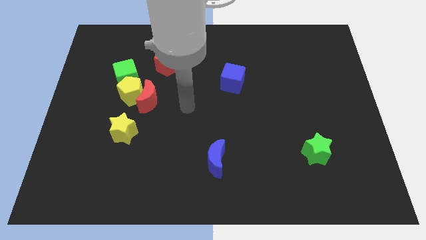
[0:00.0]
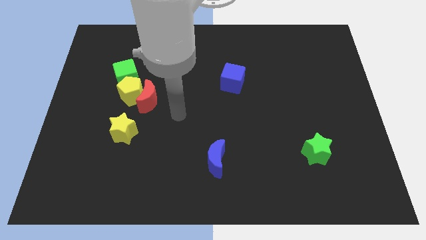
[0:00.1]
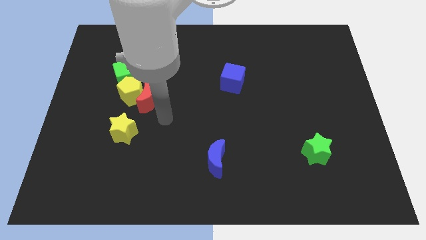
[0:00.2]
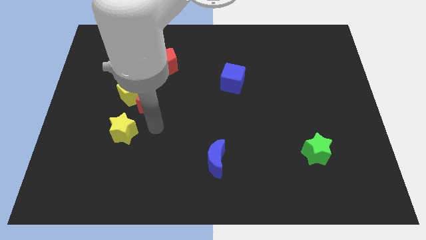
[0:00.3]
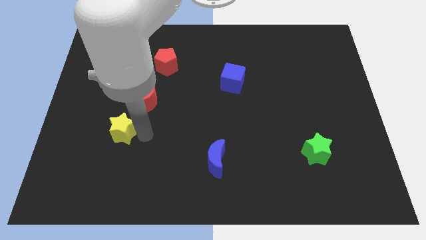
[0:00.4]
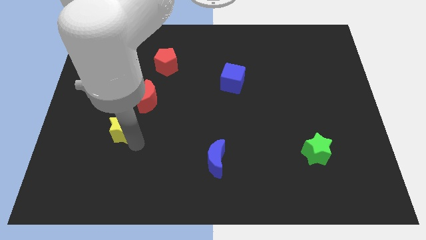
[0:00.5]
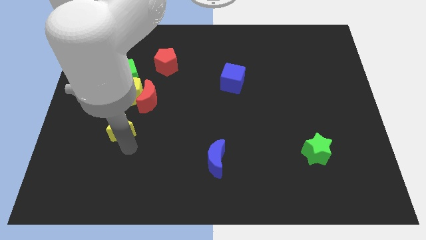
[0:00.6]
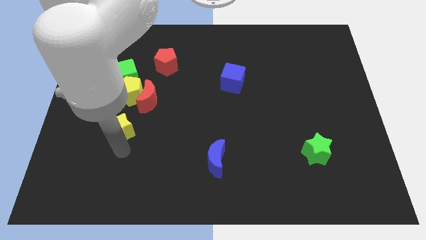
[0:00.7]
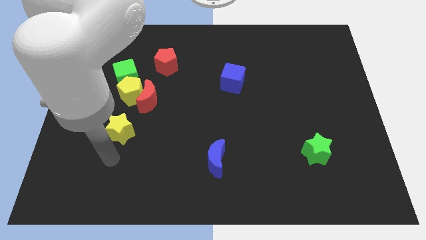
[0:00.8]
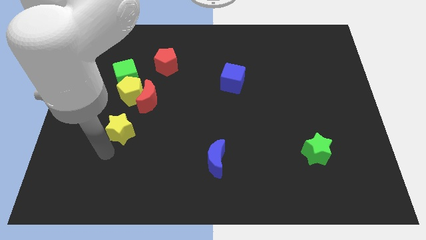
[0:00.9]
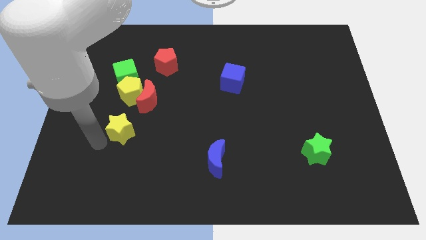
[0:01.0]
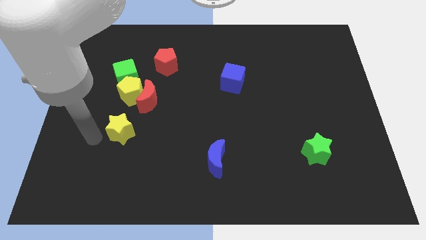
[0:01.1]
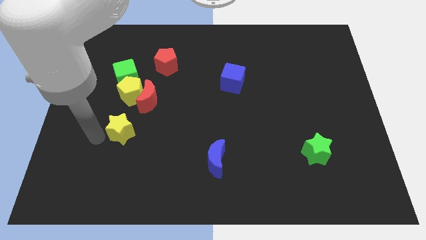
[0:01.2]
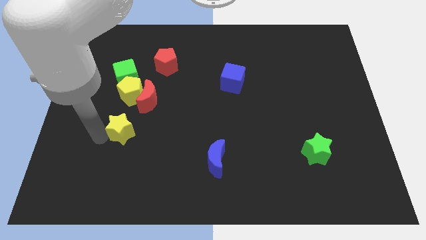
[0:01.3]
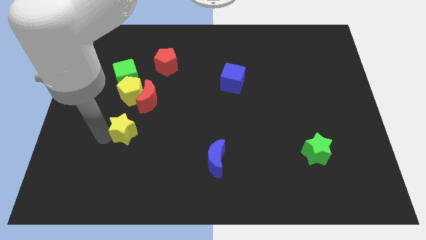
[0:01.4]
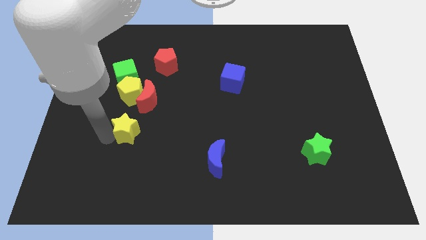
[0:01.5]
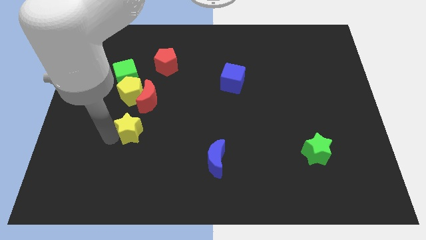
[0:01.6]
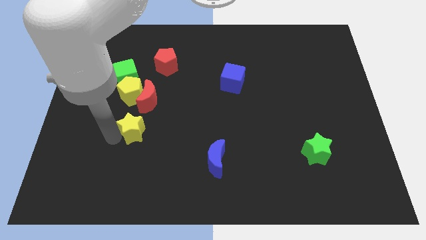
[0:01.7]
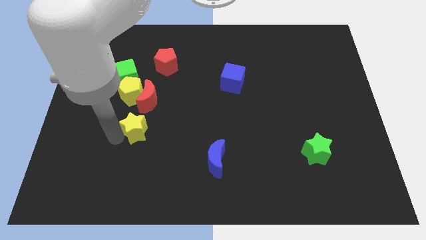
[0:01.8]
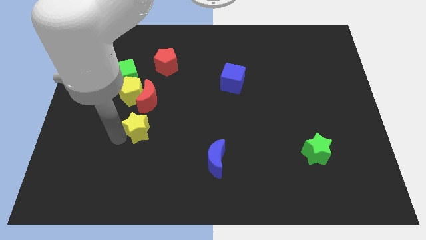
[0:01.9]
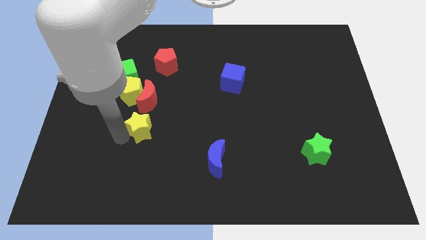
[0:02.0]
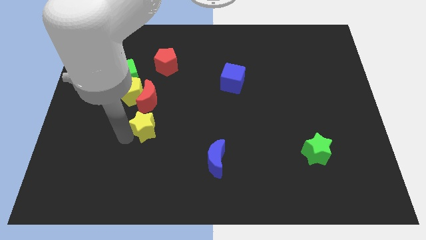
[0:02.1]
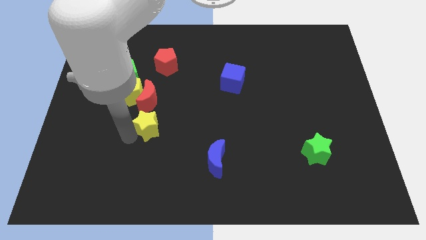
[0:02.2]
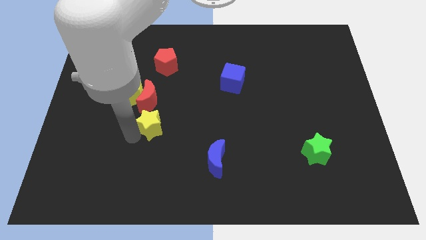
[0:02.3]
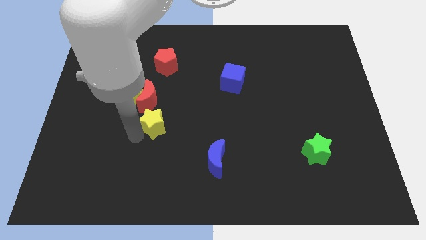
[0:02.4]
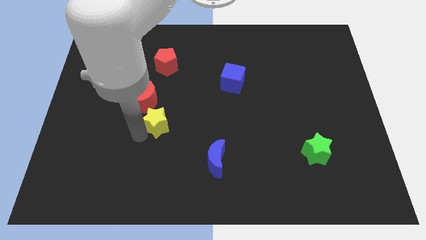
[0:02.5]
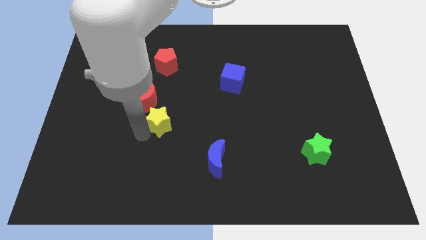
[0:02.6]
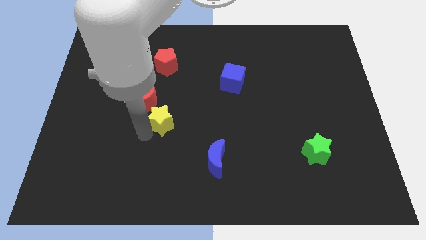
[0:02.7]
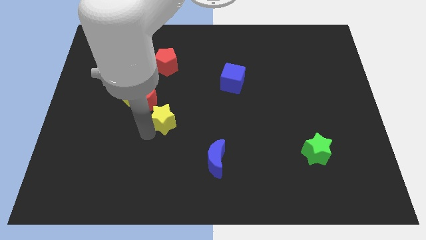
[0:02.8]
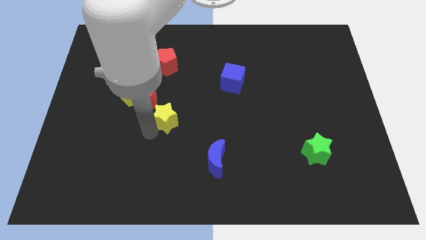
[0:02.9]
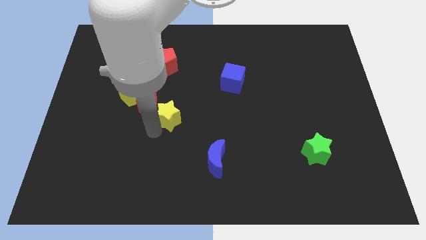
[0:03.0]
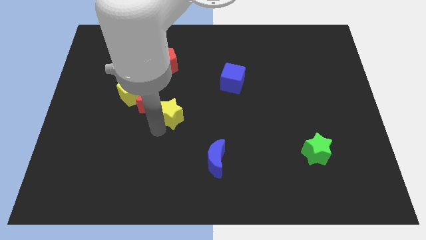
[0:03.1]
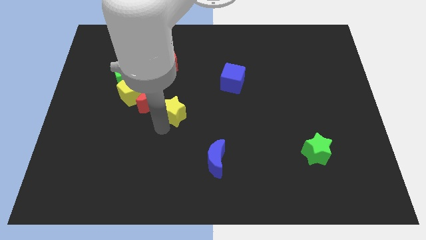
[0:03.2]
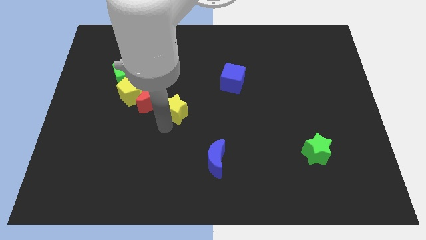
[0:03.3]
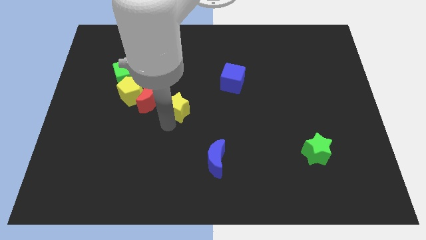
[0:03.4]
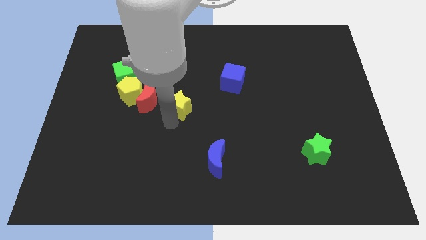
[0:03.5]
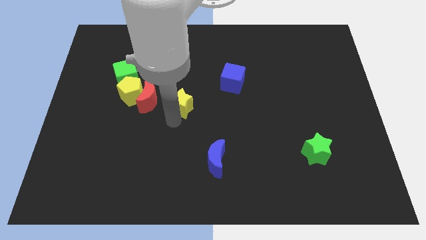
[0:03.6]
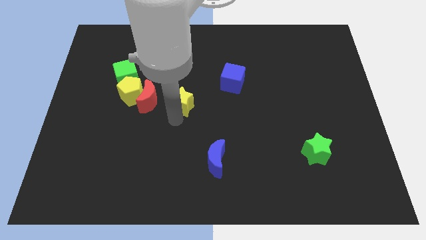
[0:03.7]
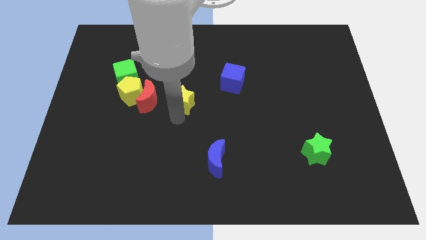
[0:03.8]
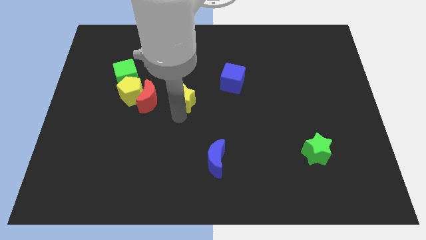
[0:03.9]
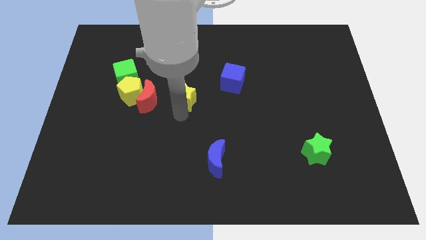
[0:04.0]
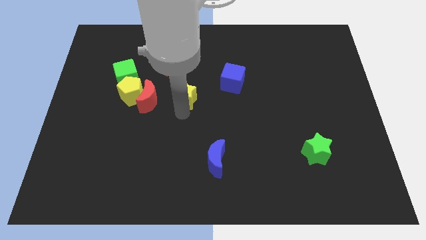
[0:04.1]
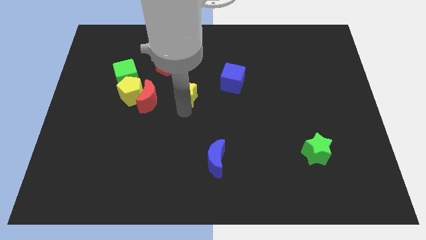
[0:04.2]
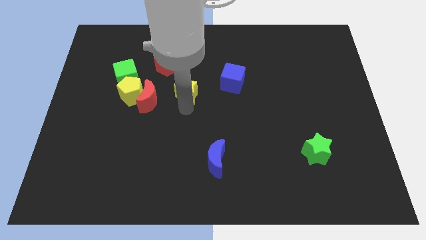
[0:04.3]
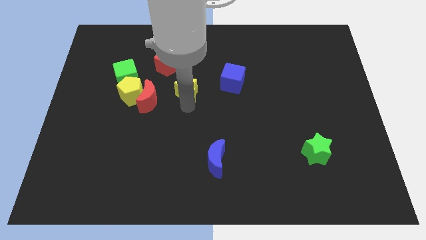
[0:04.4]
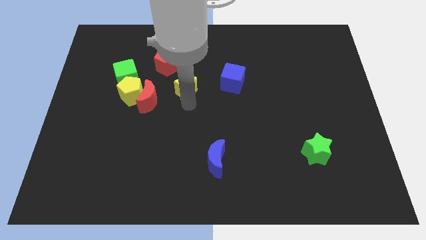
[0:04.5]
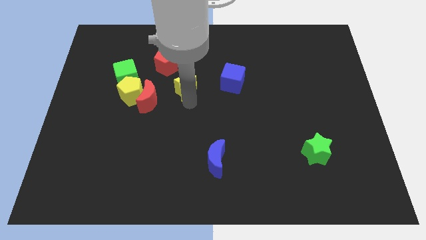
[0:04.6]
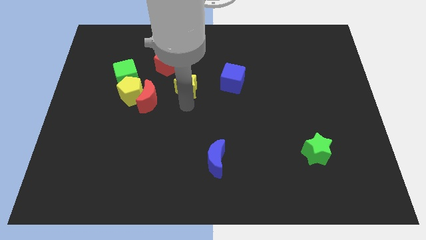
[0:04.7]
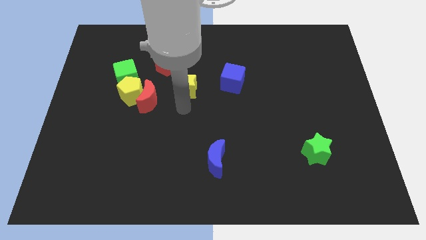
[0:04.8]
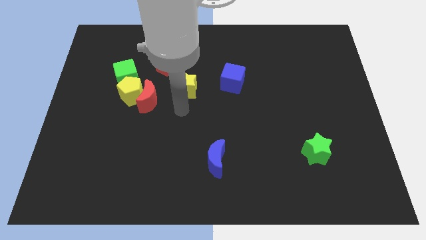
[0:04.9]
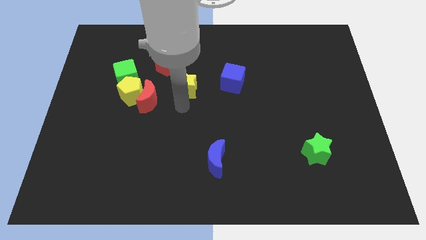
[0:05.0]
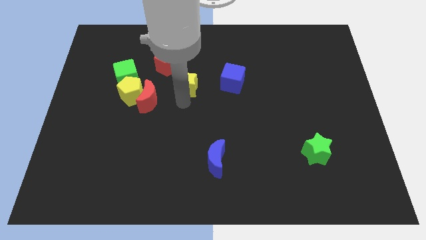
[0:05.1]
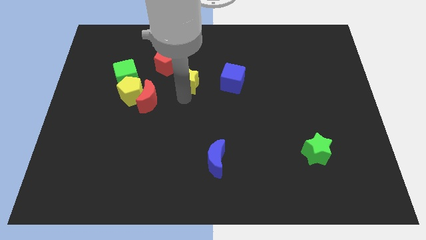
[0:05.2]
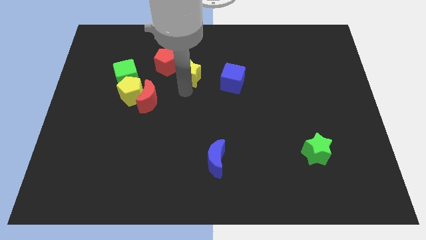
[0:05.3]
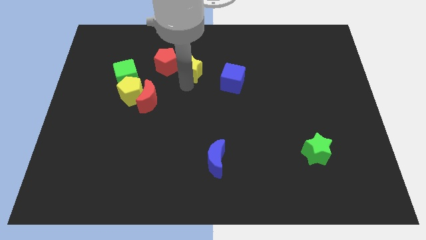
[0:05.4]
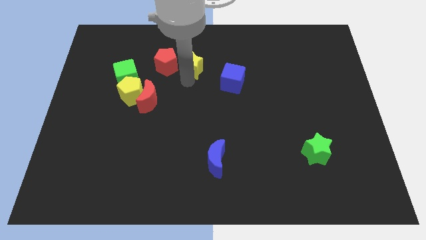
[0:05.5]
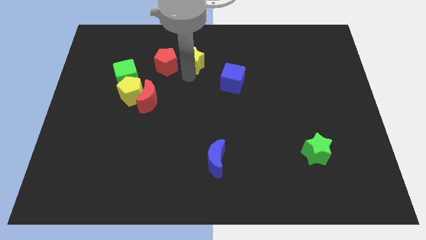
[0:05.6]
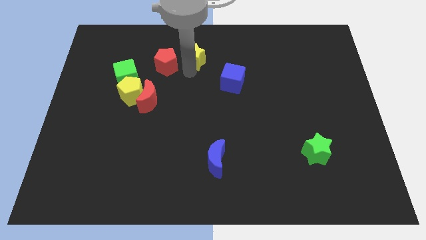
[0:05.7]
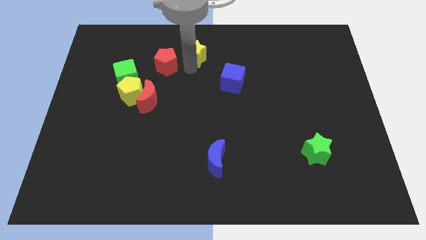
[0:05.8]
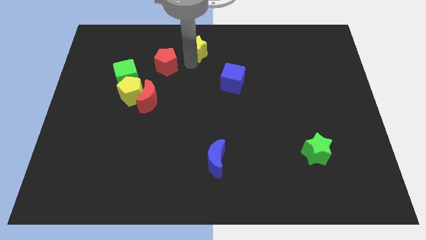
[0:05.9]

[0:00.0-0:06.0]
slide the yellow star to the towards your base

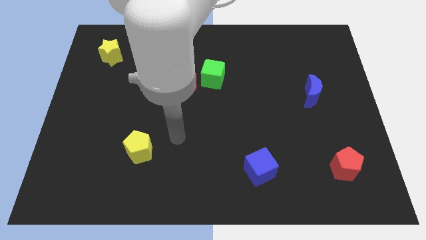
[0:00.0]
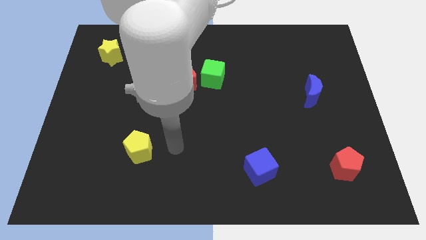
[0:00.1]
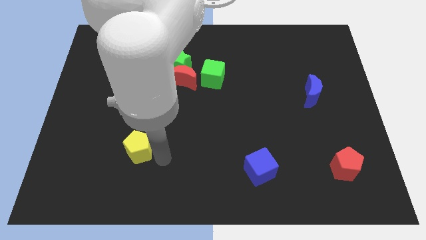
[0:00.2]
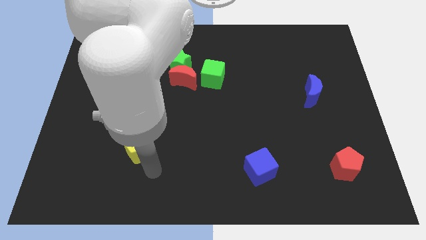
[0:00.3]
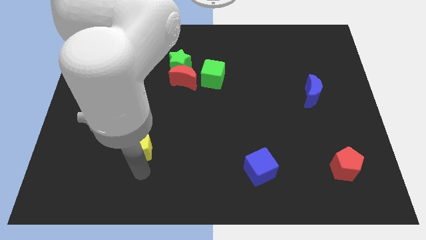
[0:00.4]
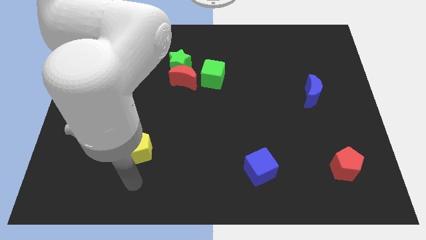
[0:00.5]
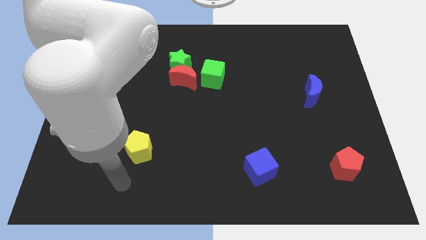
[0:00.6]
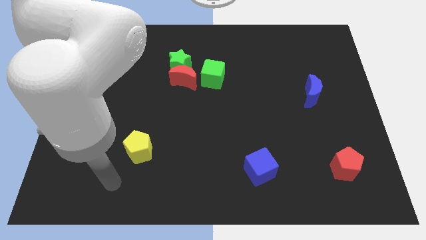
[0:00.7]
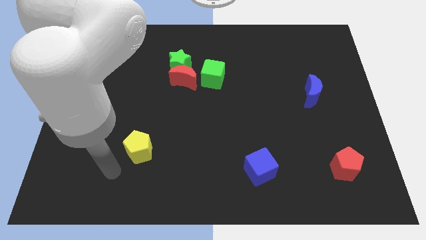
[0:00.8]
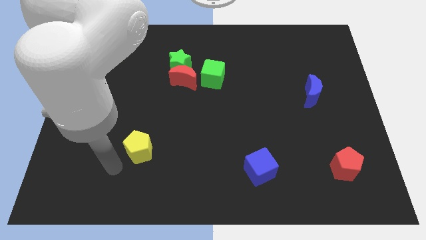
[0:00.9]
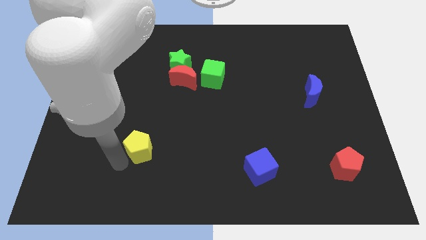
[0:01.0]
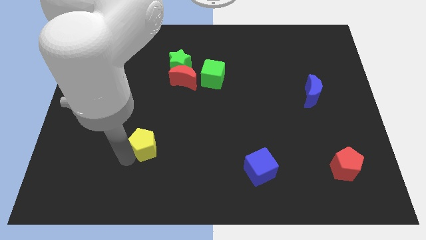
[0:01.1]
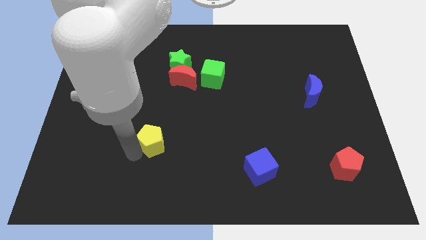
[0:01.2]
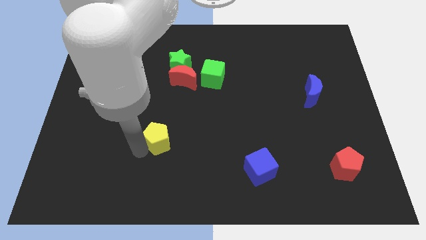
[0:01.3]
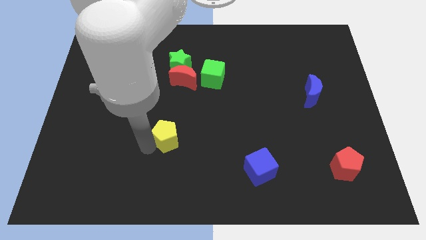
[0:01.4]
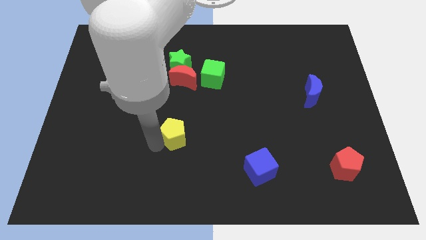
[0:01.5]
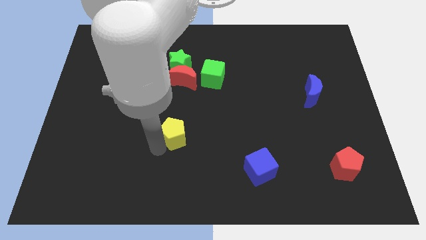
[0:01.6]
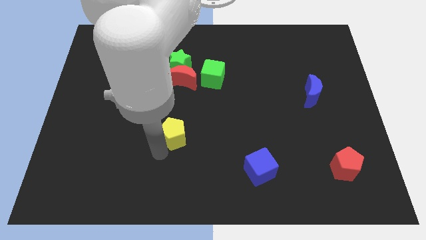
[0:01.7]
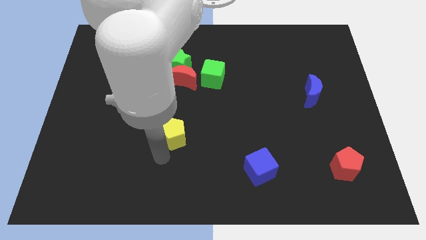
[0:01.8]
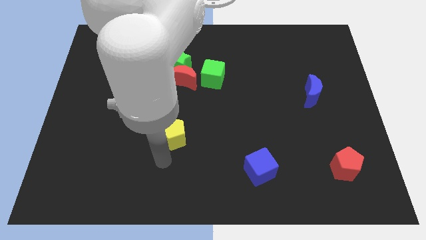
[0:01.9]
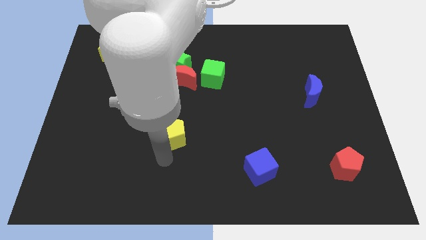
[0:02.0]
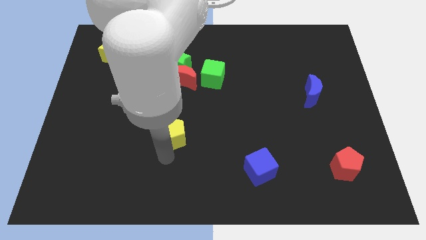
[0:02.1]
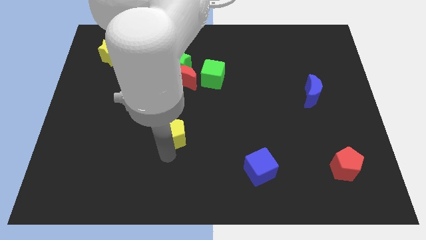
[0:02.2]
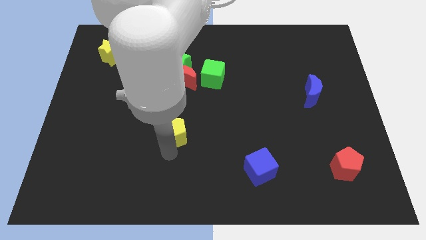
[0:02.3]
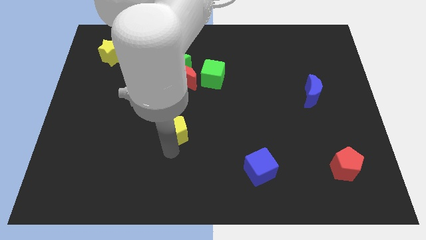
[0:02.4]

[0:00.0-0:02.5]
put the yellow pentagon to the center of the board
